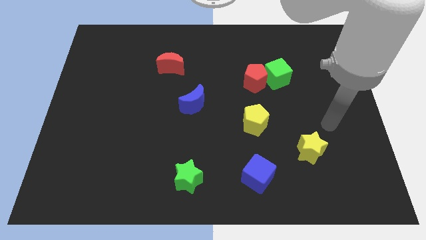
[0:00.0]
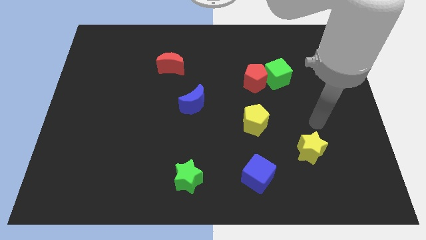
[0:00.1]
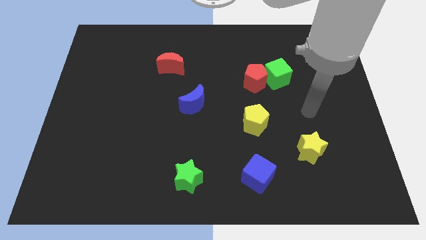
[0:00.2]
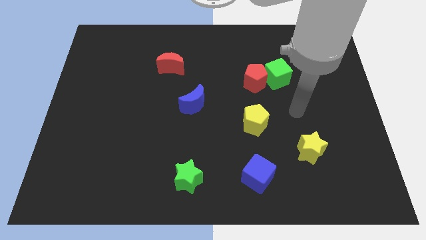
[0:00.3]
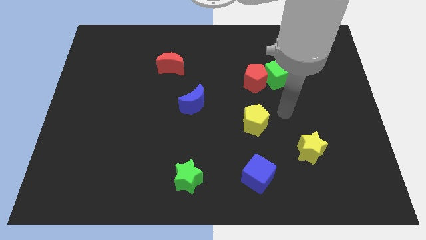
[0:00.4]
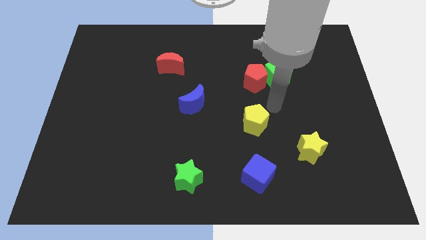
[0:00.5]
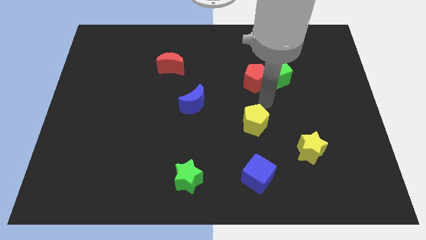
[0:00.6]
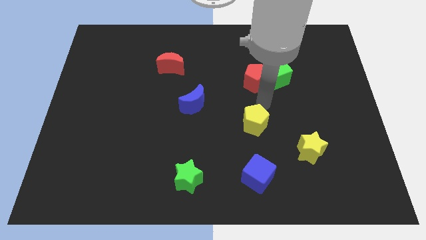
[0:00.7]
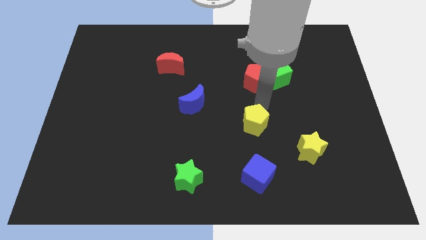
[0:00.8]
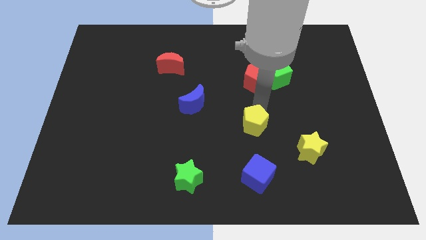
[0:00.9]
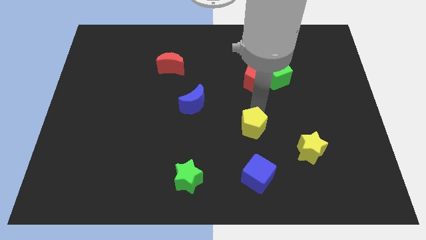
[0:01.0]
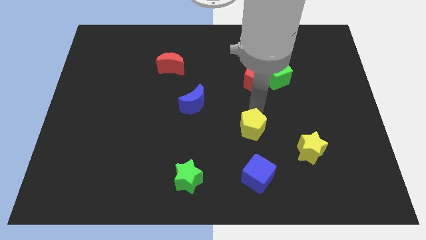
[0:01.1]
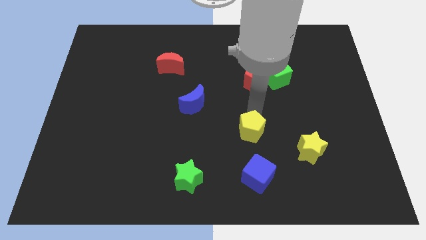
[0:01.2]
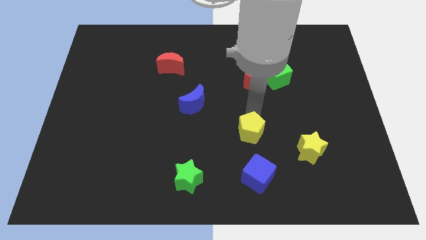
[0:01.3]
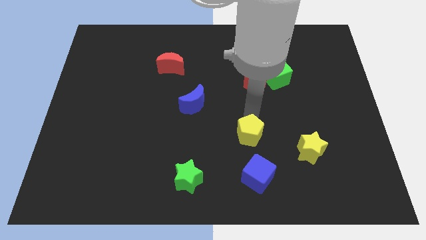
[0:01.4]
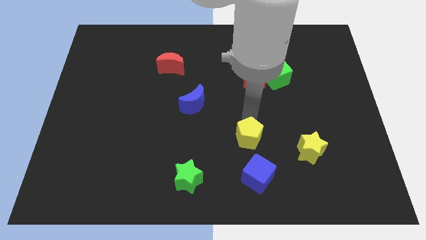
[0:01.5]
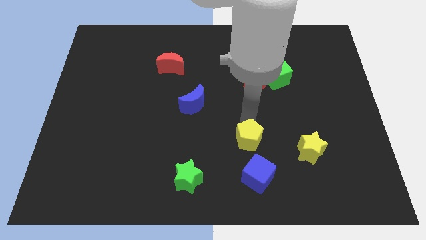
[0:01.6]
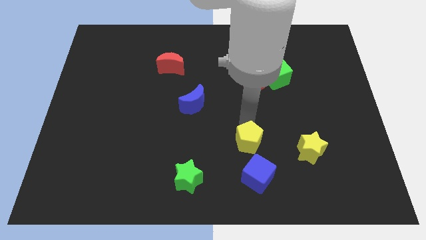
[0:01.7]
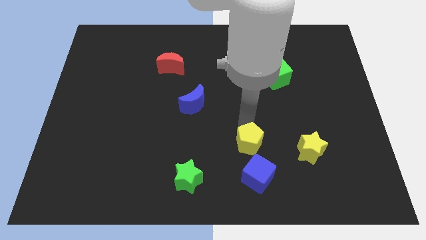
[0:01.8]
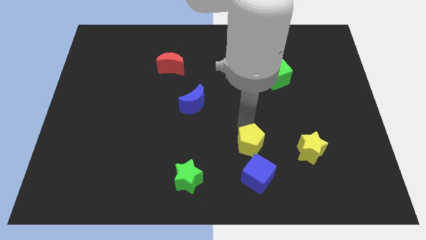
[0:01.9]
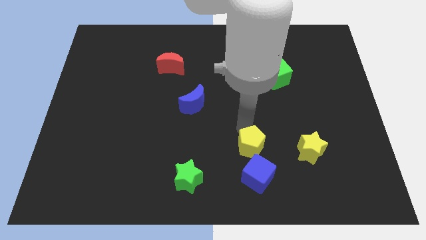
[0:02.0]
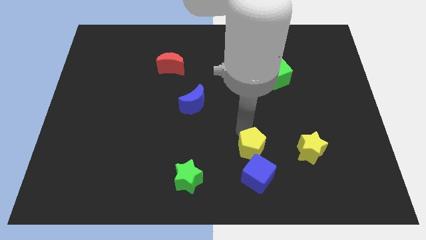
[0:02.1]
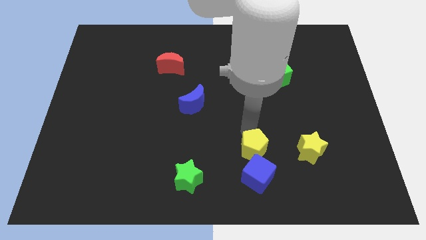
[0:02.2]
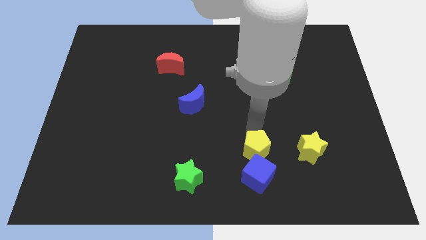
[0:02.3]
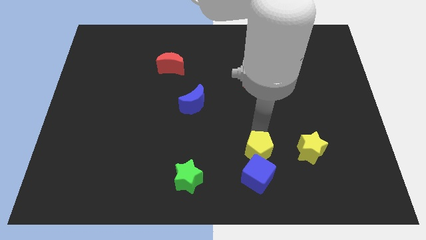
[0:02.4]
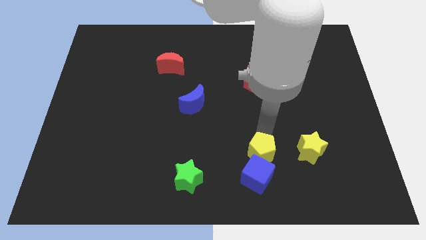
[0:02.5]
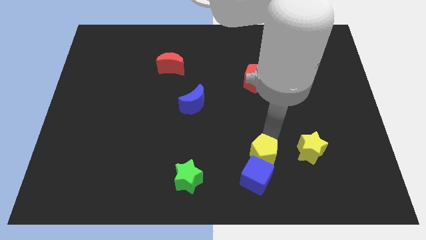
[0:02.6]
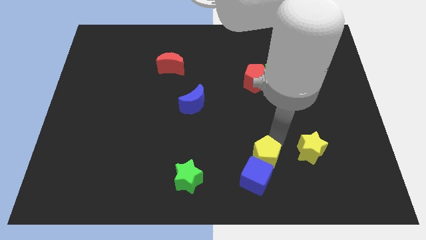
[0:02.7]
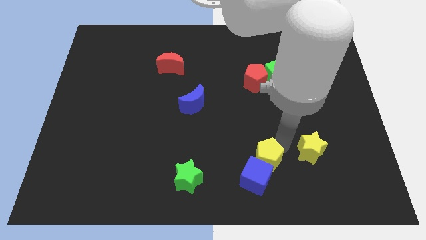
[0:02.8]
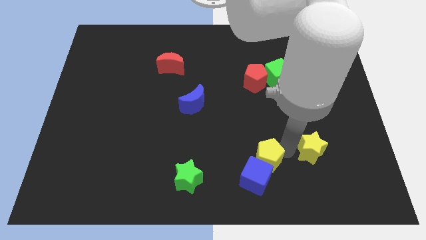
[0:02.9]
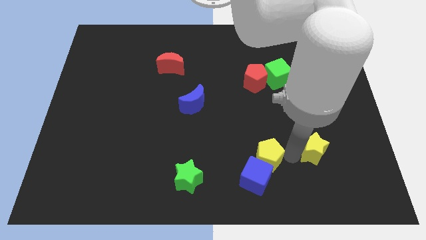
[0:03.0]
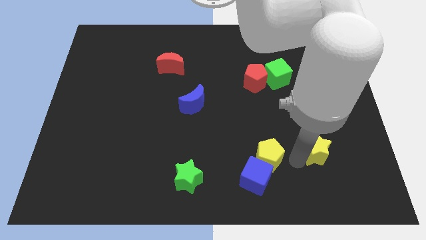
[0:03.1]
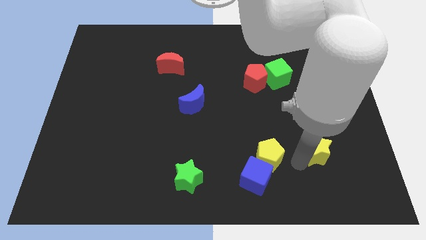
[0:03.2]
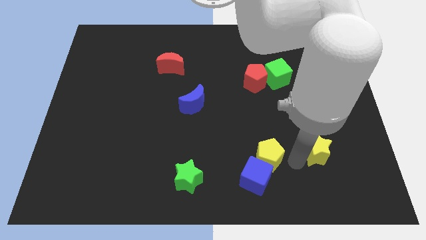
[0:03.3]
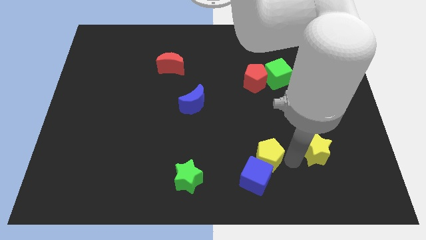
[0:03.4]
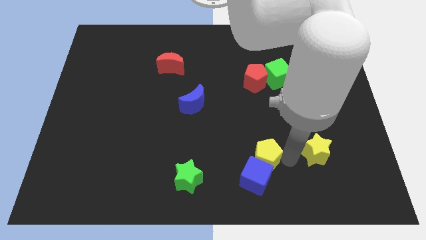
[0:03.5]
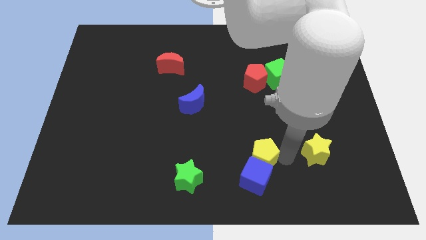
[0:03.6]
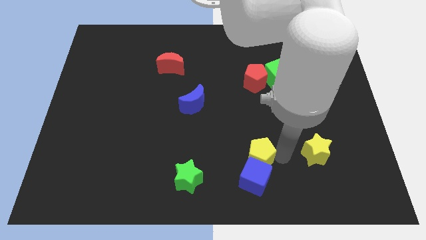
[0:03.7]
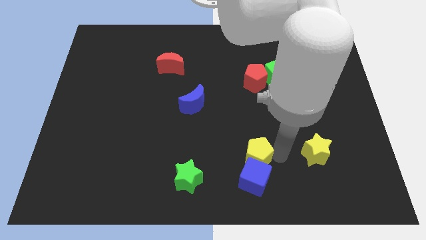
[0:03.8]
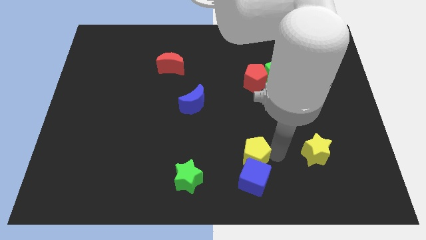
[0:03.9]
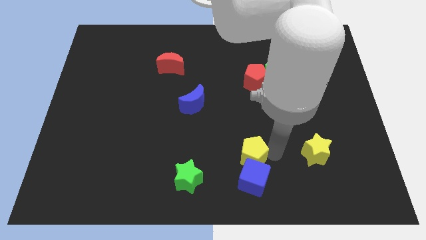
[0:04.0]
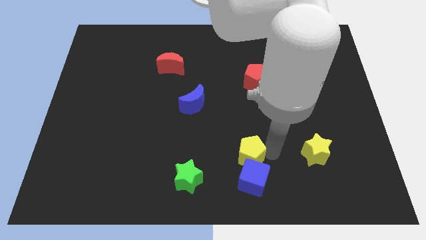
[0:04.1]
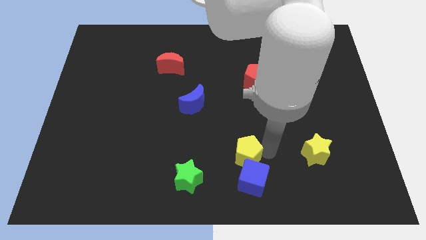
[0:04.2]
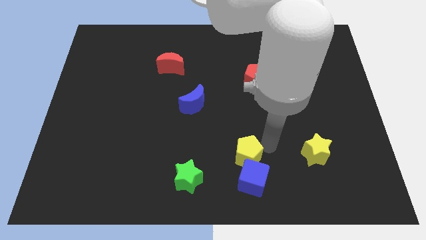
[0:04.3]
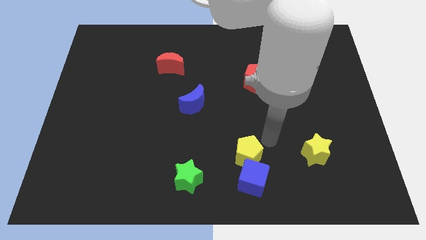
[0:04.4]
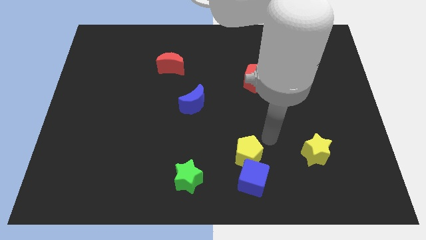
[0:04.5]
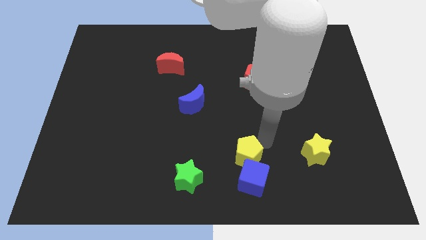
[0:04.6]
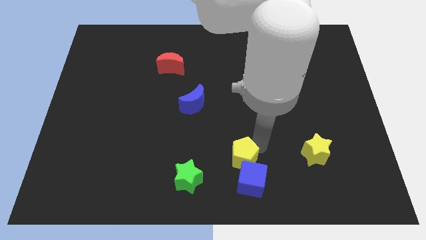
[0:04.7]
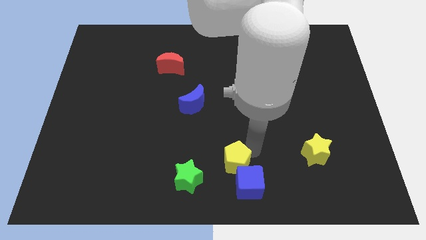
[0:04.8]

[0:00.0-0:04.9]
slide the yellow pentagon to the bottom side
